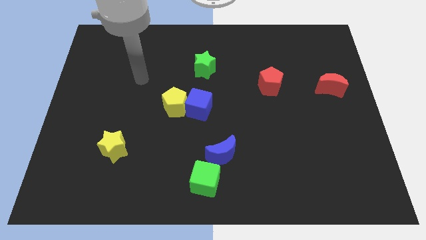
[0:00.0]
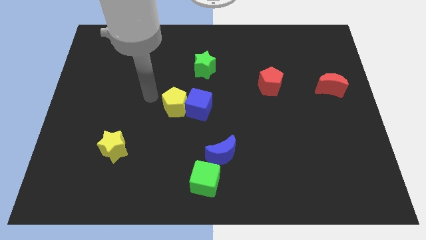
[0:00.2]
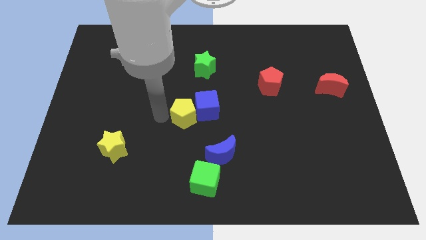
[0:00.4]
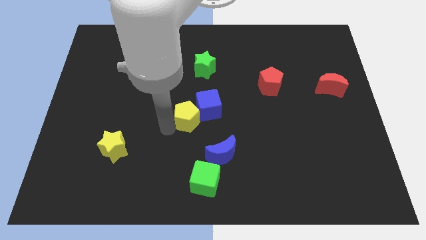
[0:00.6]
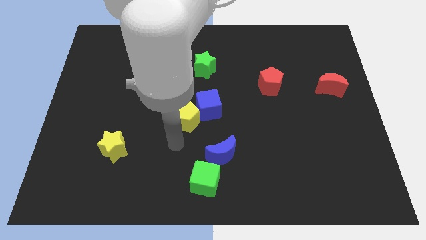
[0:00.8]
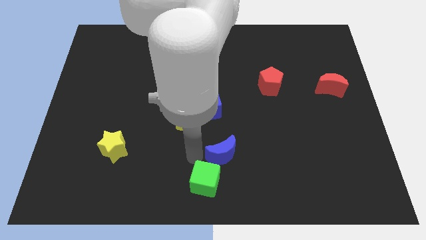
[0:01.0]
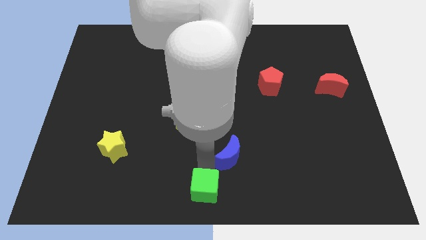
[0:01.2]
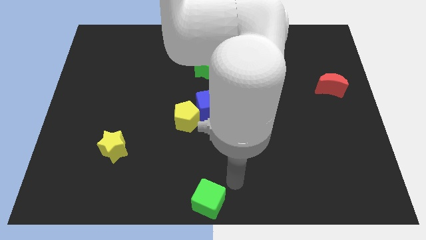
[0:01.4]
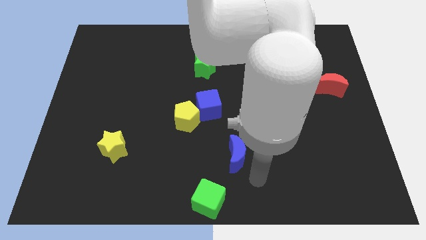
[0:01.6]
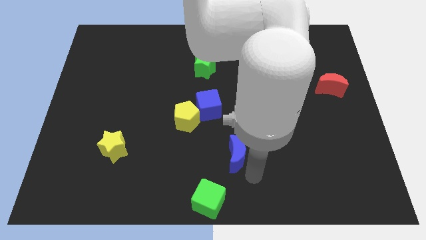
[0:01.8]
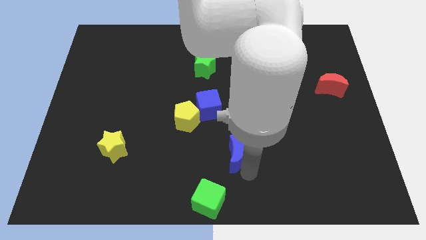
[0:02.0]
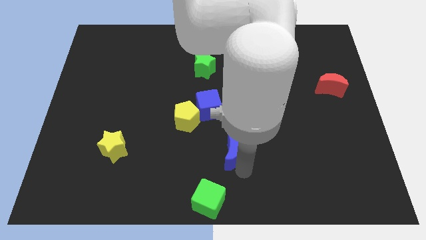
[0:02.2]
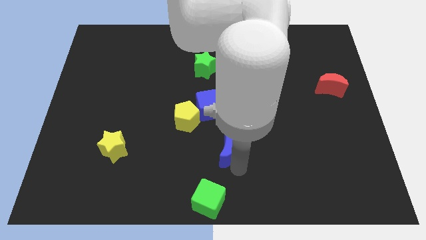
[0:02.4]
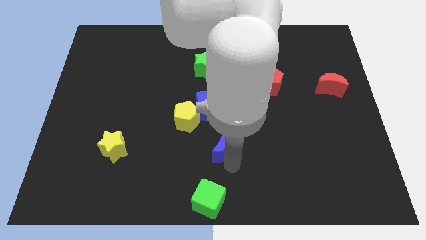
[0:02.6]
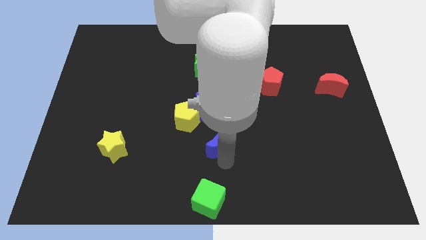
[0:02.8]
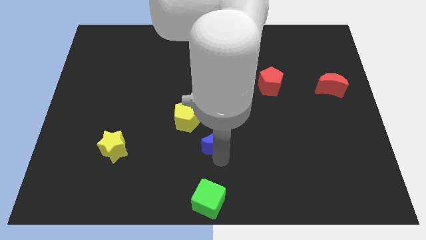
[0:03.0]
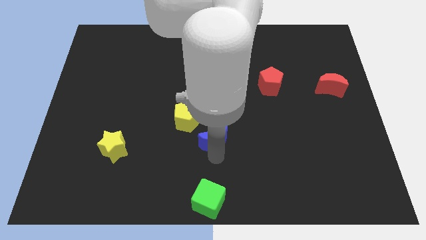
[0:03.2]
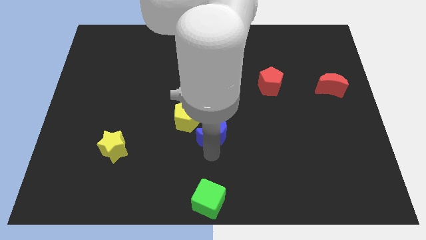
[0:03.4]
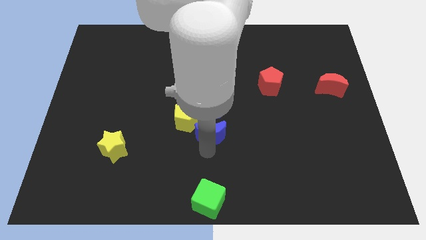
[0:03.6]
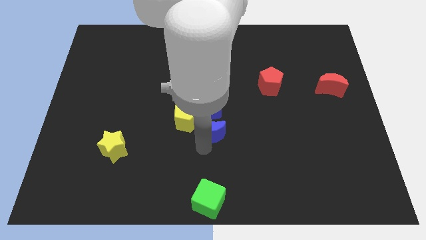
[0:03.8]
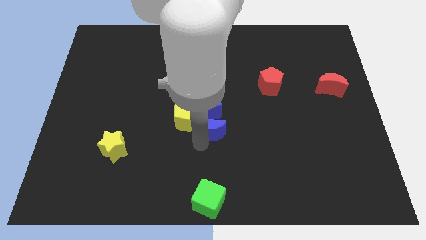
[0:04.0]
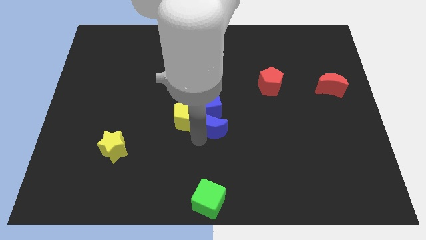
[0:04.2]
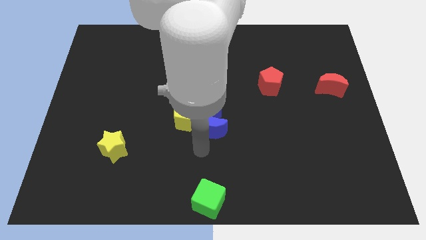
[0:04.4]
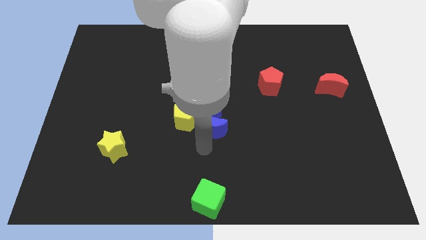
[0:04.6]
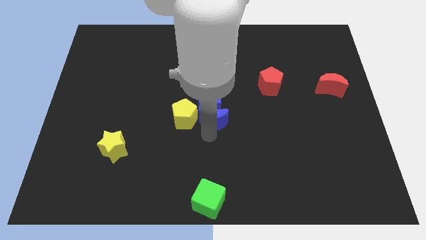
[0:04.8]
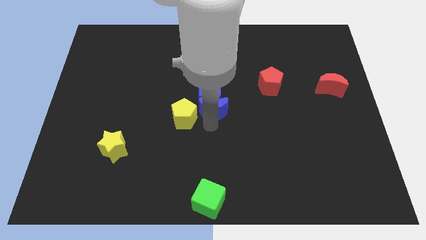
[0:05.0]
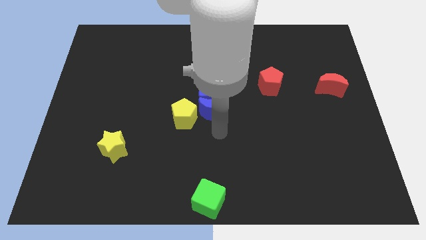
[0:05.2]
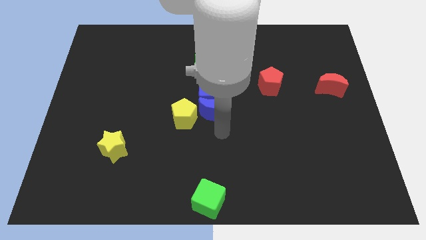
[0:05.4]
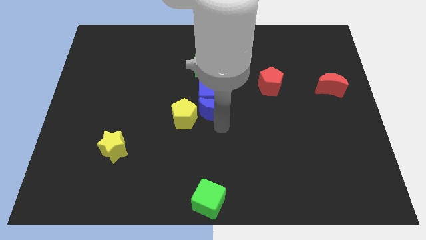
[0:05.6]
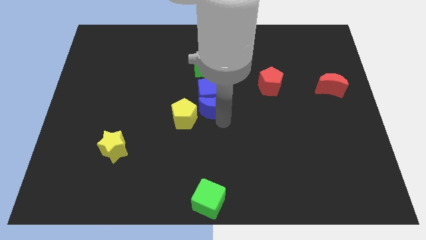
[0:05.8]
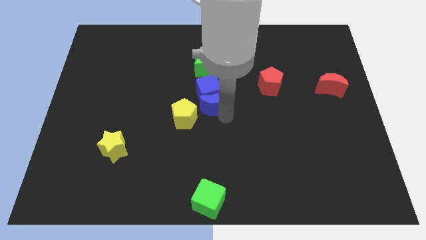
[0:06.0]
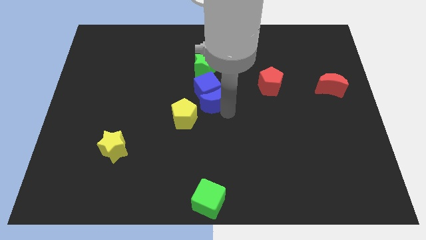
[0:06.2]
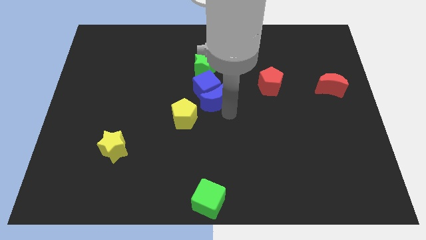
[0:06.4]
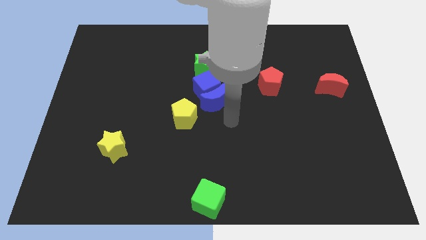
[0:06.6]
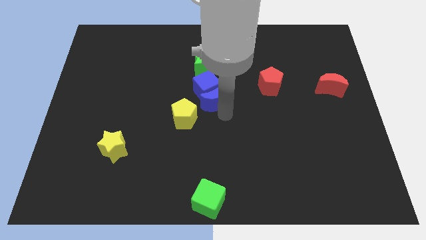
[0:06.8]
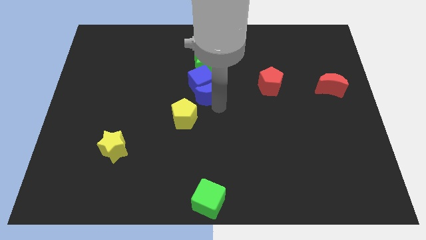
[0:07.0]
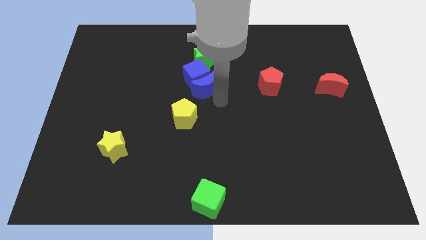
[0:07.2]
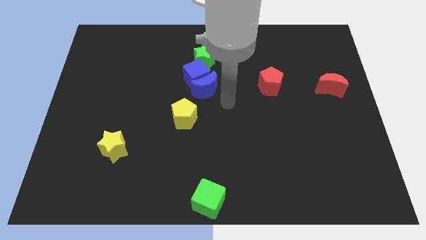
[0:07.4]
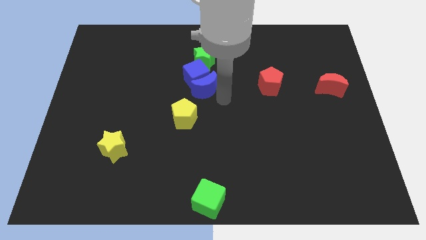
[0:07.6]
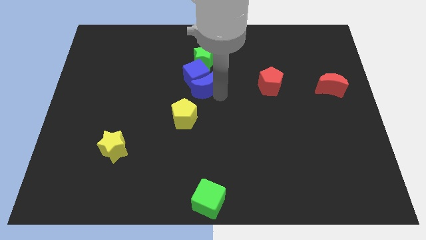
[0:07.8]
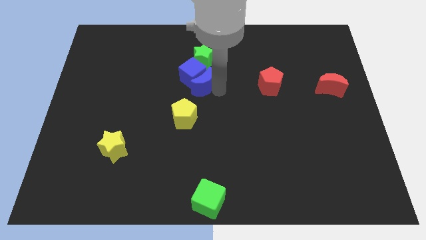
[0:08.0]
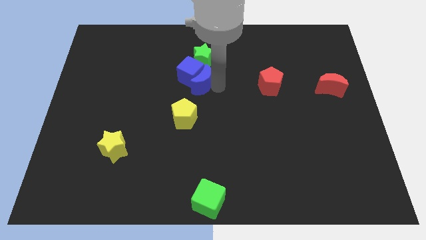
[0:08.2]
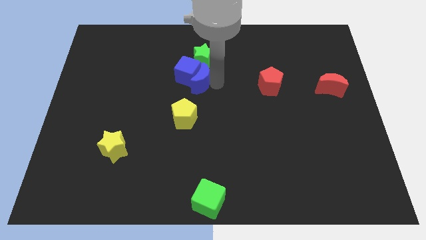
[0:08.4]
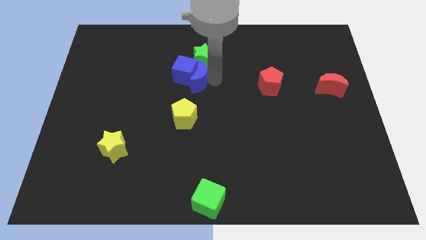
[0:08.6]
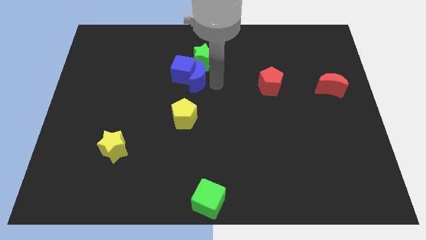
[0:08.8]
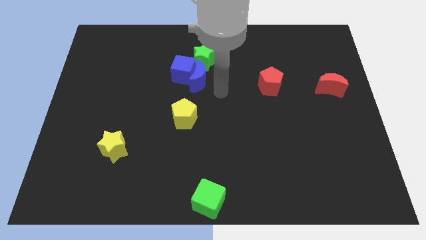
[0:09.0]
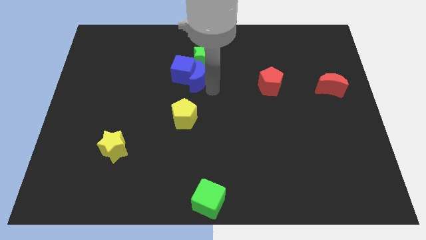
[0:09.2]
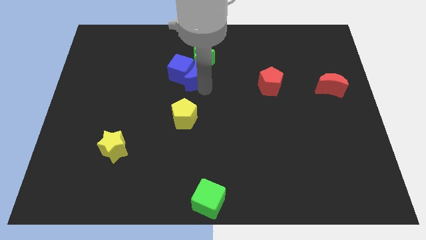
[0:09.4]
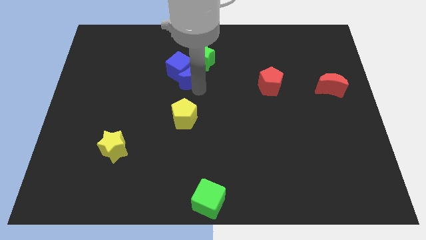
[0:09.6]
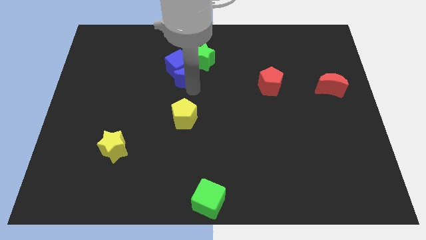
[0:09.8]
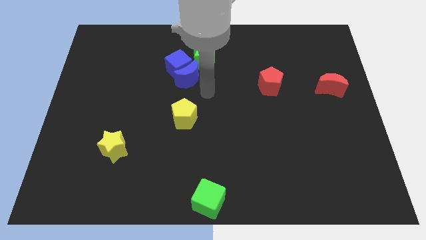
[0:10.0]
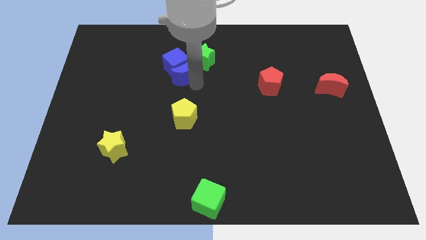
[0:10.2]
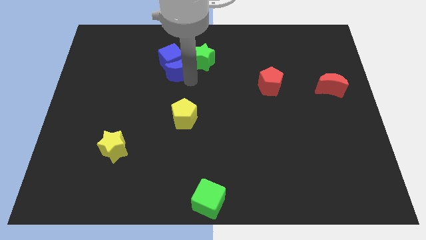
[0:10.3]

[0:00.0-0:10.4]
move the blue moon left of the green star

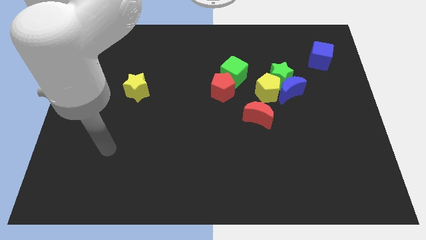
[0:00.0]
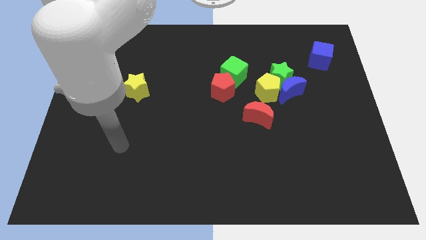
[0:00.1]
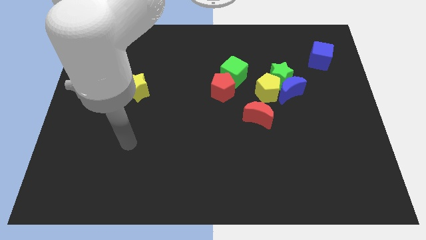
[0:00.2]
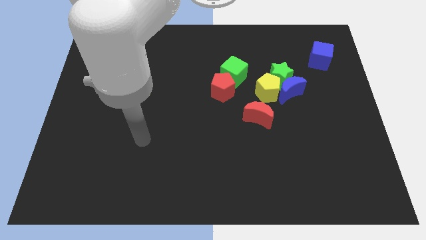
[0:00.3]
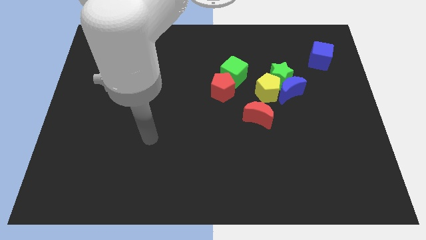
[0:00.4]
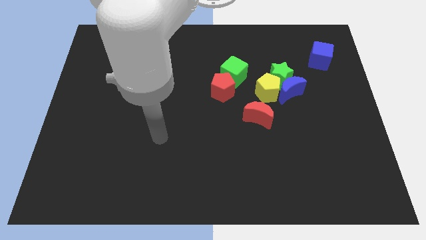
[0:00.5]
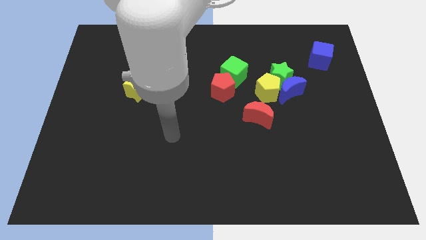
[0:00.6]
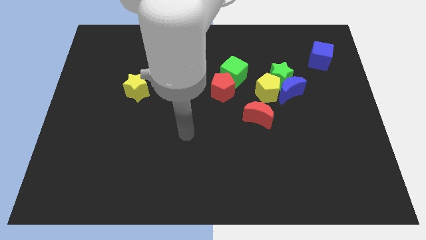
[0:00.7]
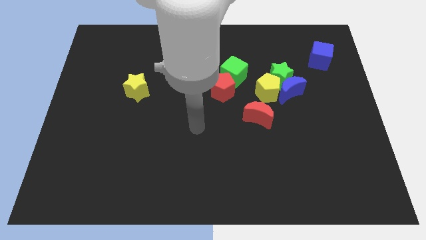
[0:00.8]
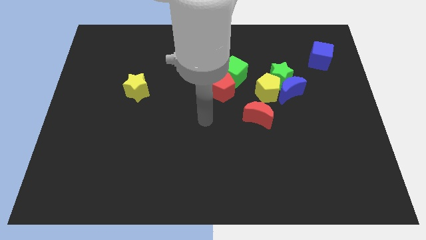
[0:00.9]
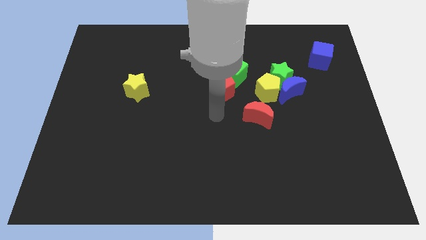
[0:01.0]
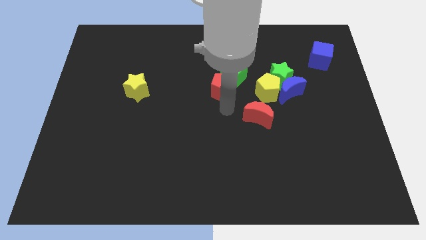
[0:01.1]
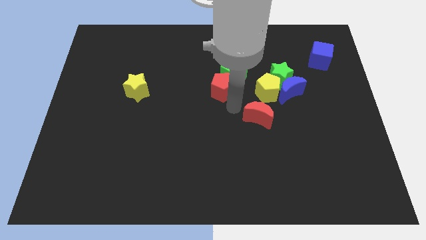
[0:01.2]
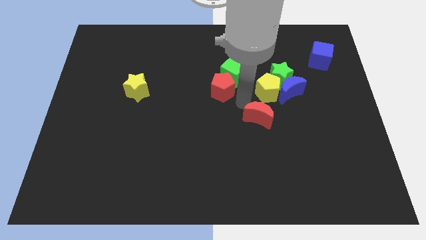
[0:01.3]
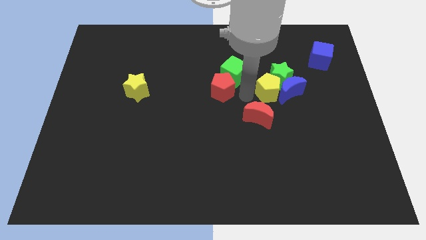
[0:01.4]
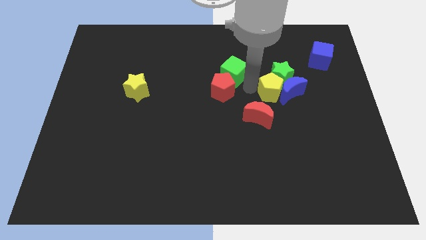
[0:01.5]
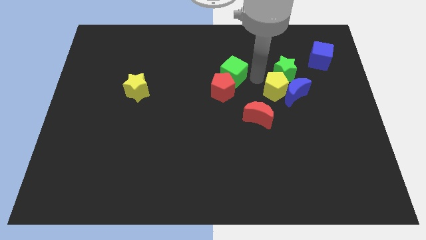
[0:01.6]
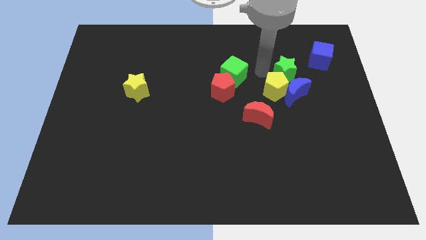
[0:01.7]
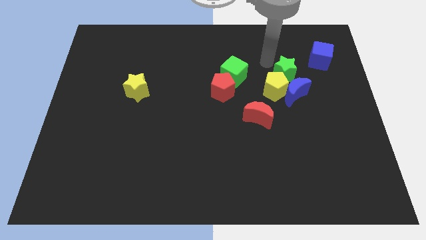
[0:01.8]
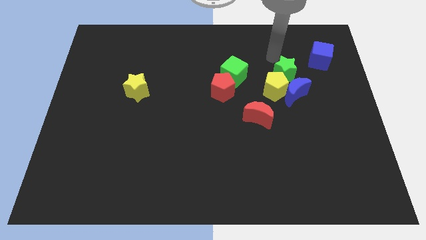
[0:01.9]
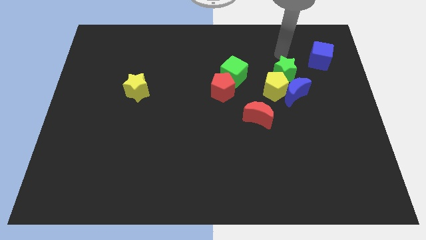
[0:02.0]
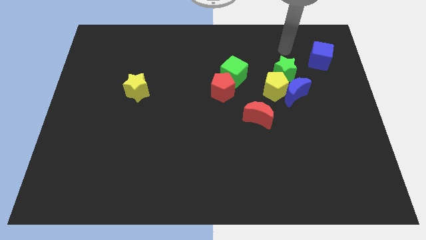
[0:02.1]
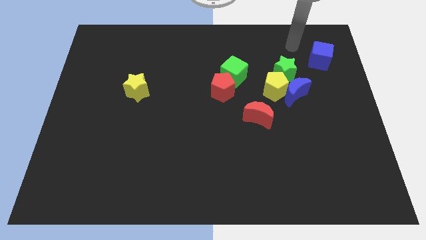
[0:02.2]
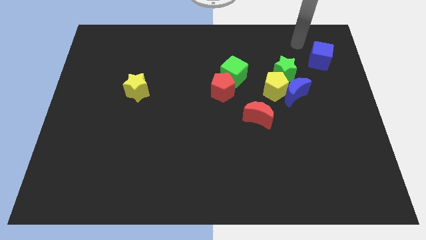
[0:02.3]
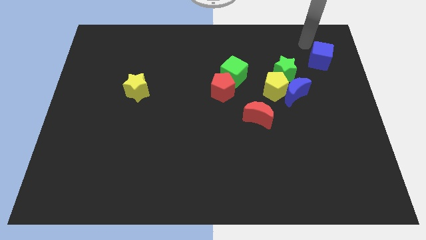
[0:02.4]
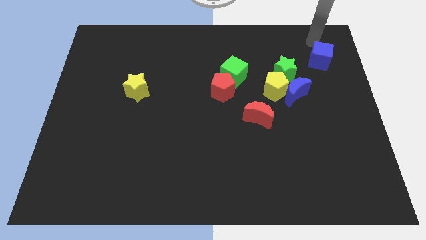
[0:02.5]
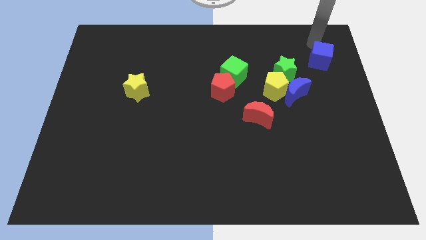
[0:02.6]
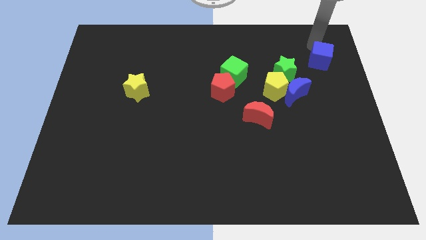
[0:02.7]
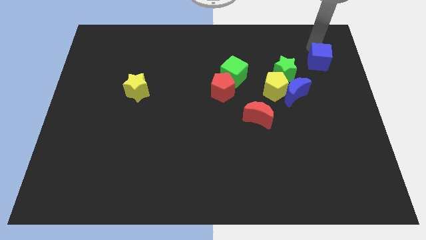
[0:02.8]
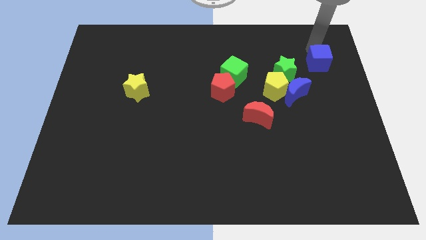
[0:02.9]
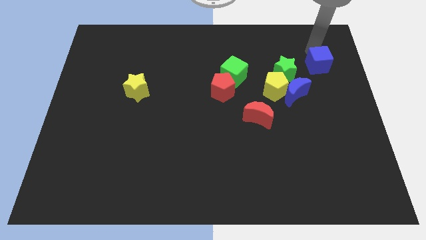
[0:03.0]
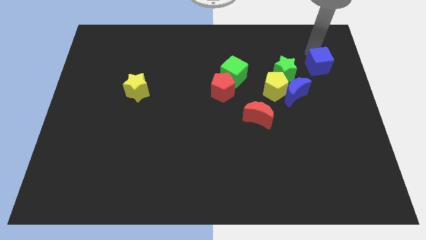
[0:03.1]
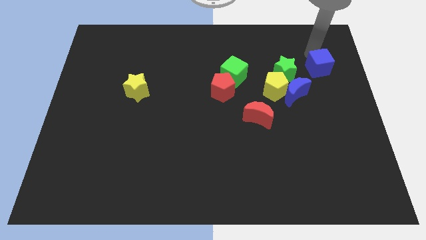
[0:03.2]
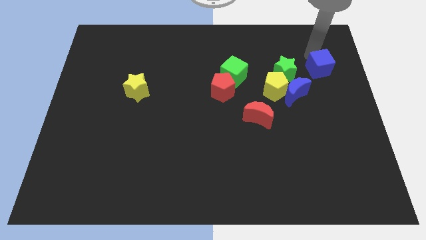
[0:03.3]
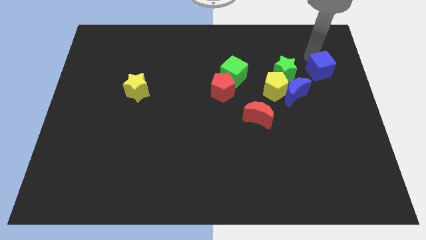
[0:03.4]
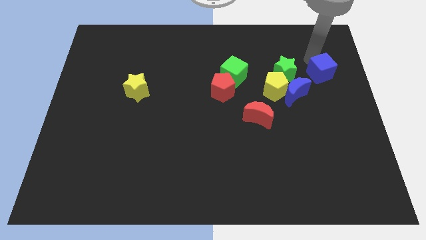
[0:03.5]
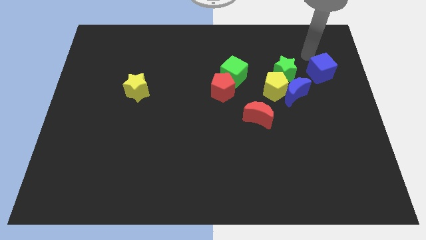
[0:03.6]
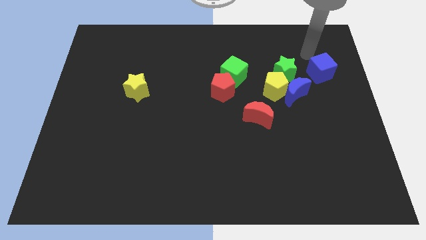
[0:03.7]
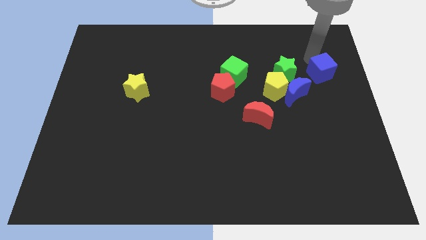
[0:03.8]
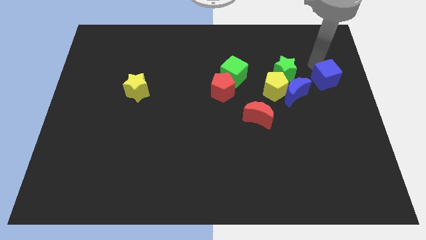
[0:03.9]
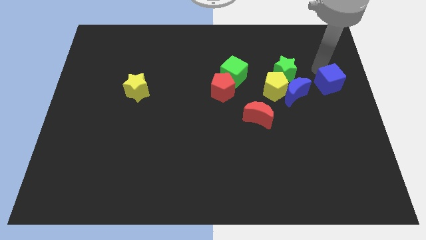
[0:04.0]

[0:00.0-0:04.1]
put the blue cube to the right side of the blue moon
